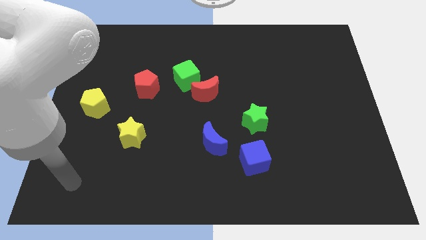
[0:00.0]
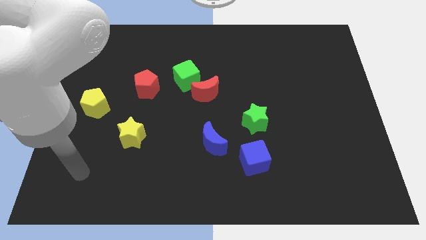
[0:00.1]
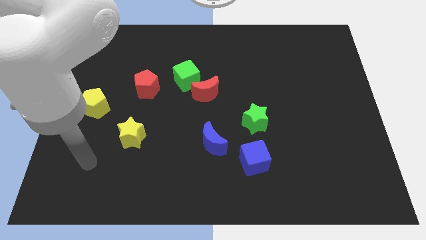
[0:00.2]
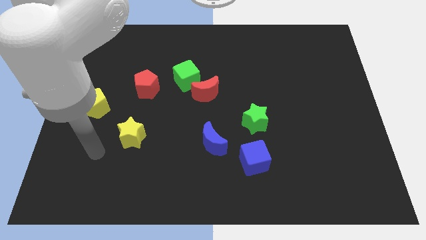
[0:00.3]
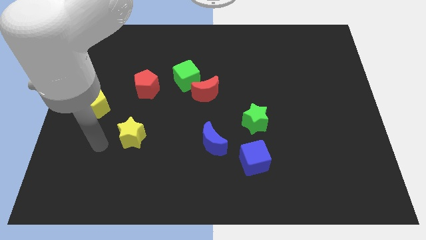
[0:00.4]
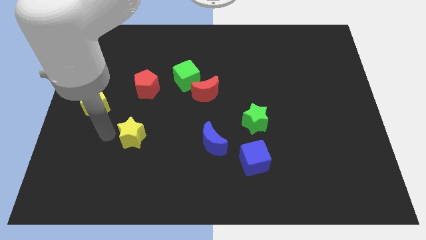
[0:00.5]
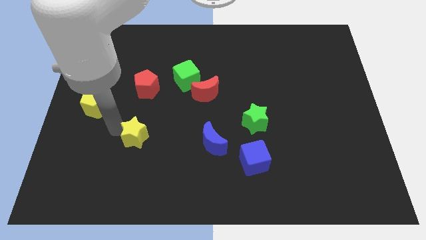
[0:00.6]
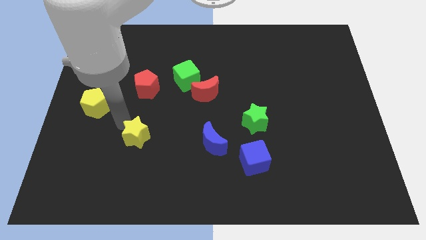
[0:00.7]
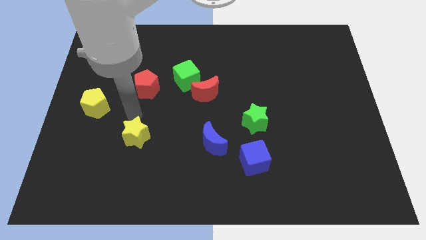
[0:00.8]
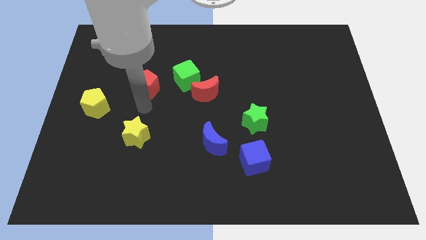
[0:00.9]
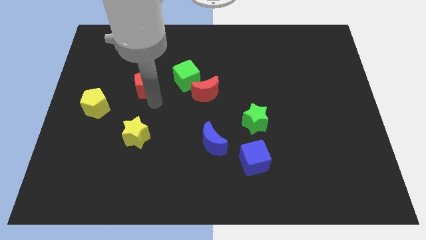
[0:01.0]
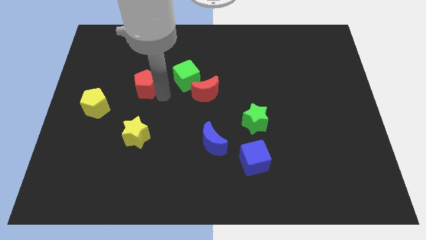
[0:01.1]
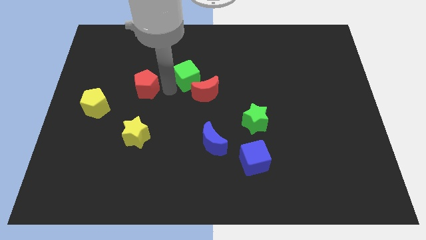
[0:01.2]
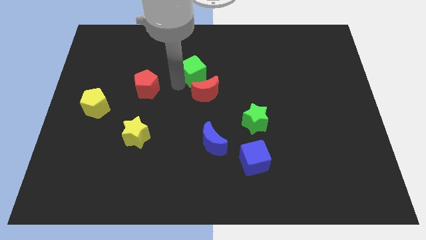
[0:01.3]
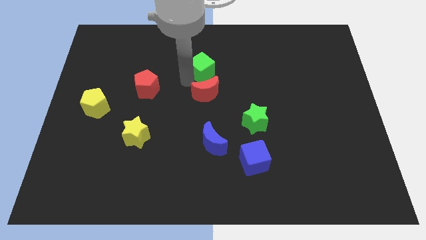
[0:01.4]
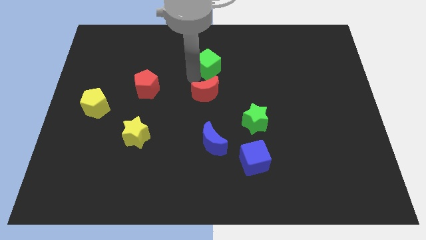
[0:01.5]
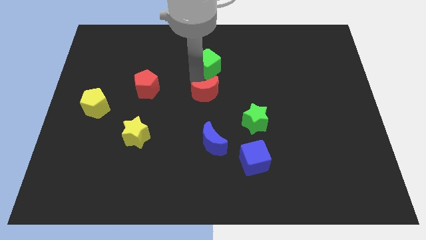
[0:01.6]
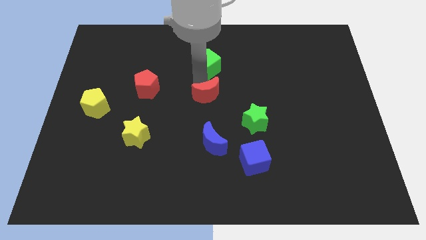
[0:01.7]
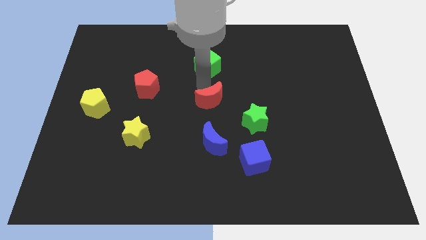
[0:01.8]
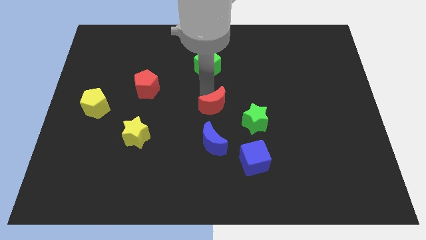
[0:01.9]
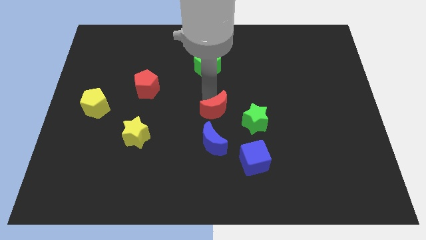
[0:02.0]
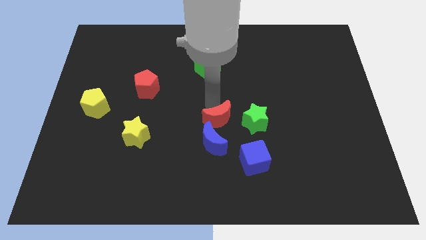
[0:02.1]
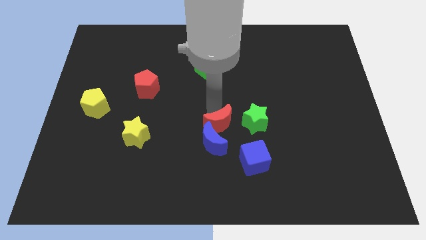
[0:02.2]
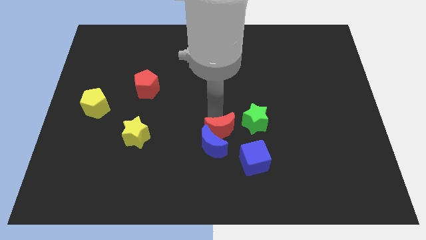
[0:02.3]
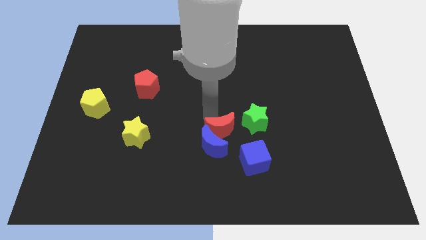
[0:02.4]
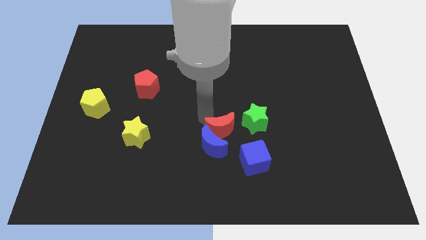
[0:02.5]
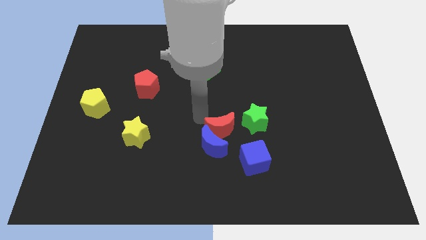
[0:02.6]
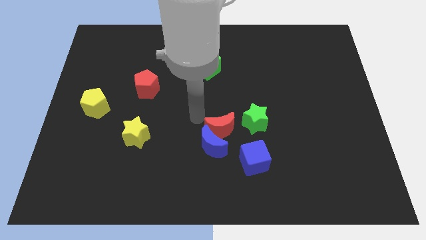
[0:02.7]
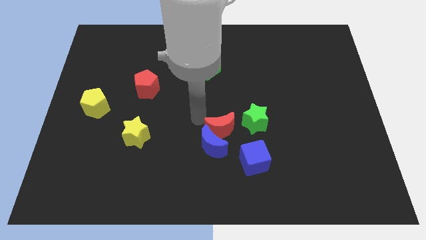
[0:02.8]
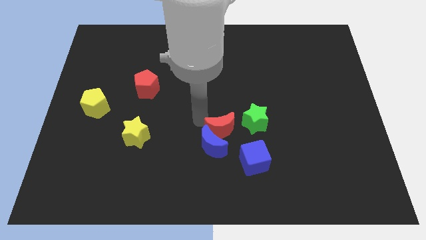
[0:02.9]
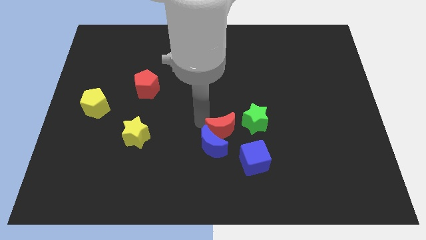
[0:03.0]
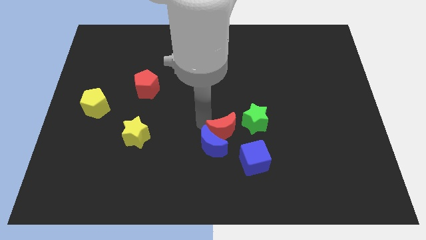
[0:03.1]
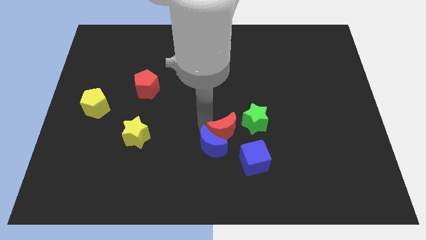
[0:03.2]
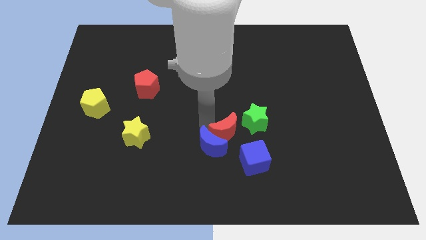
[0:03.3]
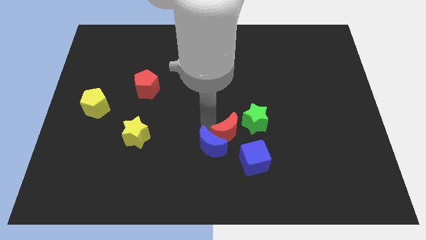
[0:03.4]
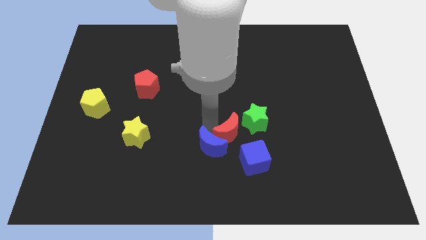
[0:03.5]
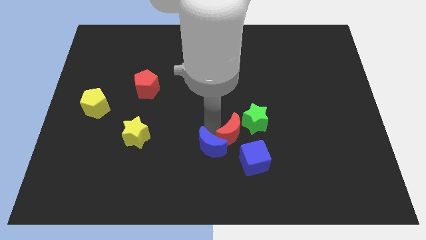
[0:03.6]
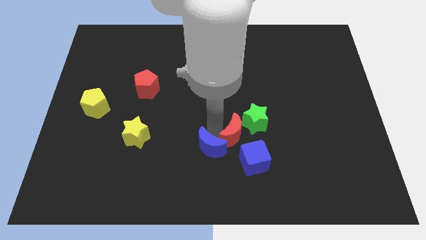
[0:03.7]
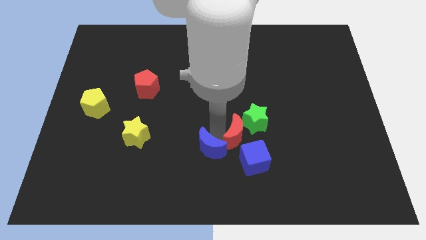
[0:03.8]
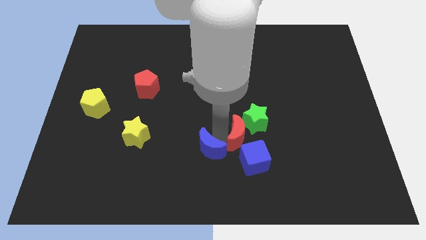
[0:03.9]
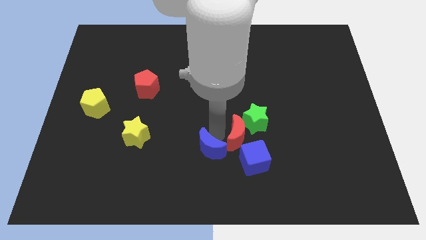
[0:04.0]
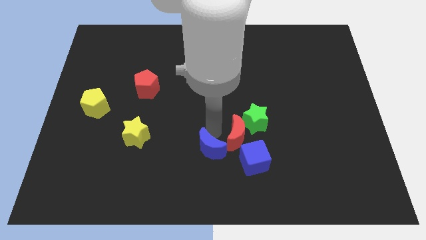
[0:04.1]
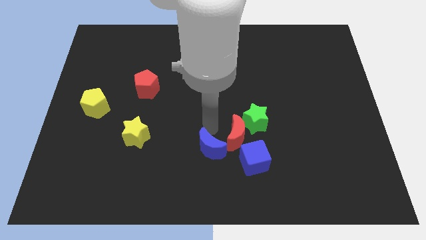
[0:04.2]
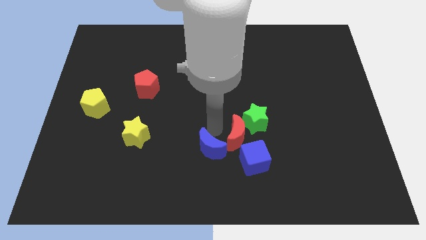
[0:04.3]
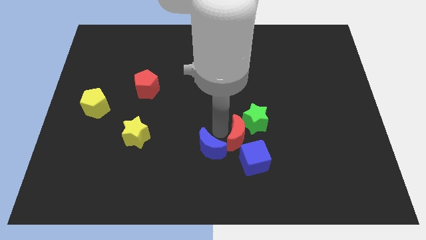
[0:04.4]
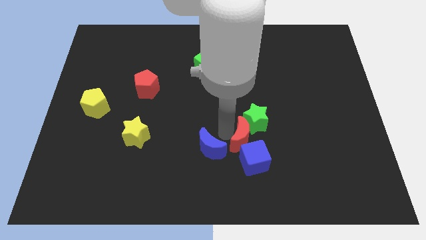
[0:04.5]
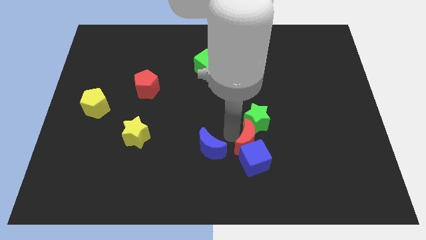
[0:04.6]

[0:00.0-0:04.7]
move the red moon diagonally up and to the right of the blue cube

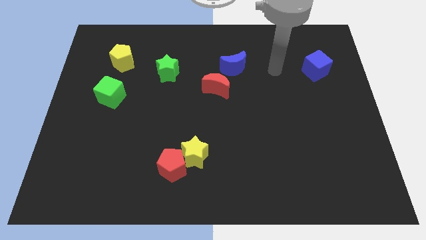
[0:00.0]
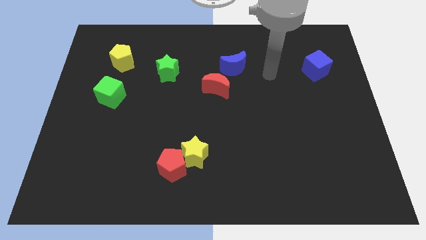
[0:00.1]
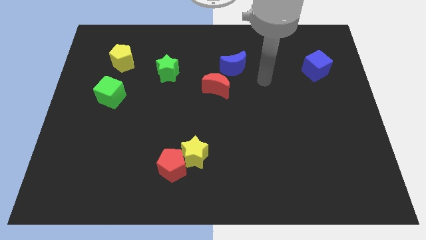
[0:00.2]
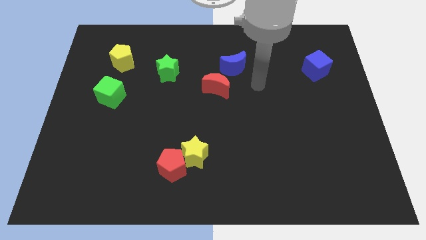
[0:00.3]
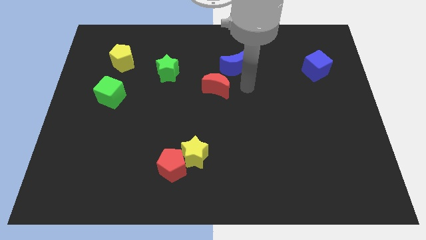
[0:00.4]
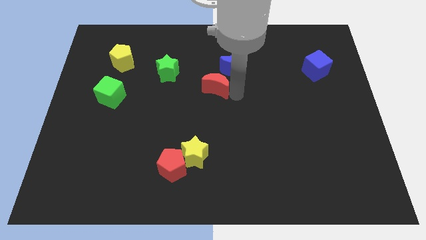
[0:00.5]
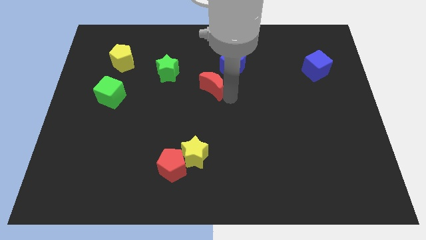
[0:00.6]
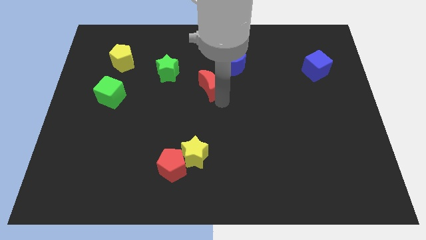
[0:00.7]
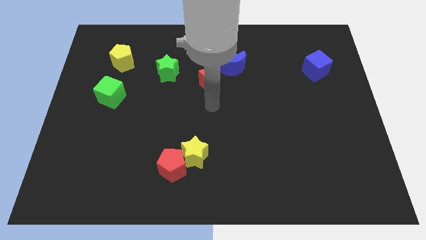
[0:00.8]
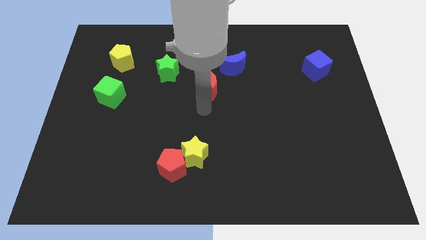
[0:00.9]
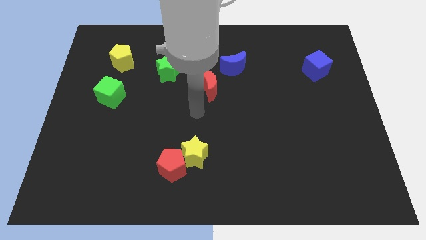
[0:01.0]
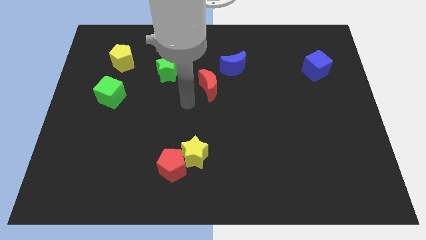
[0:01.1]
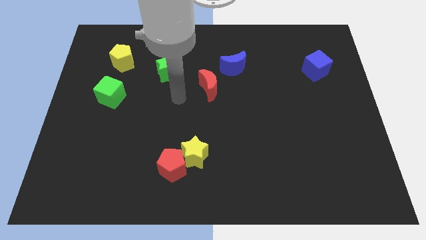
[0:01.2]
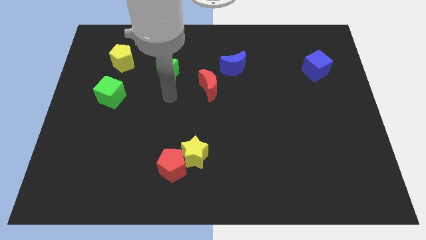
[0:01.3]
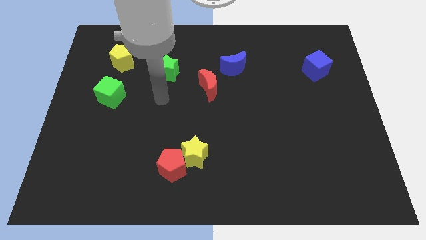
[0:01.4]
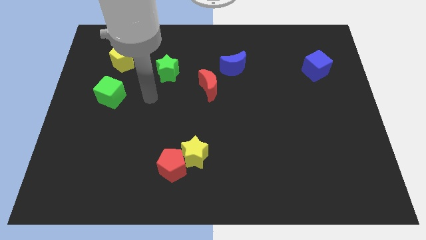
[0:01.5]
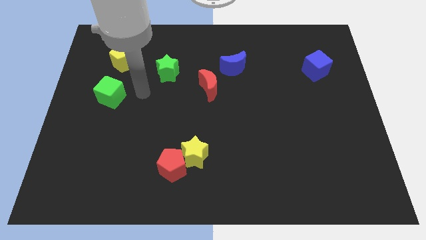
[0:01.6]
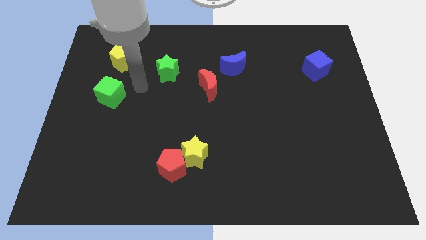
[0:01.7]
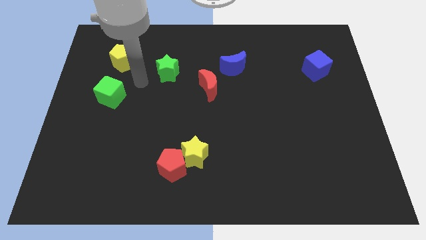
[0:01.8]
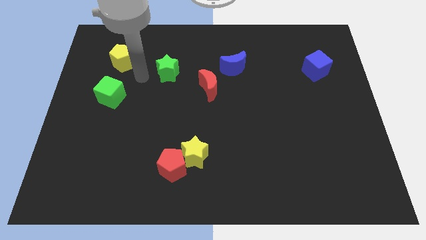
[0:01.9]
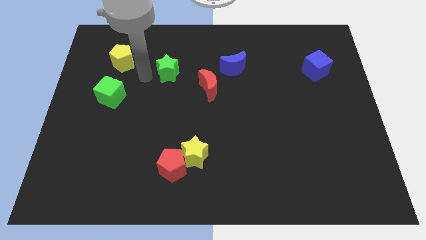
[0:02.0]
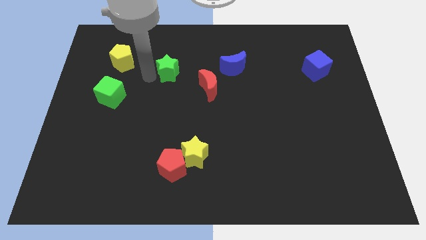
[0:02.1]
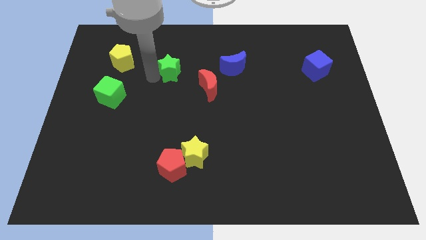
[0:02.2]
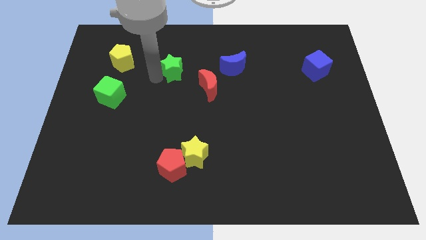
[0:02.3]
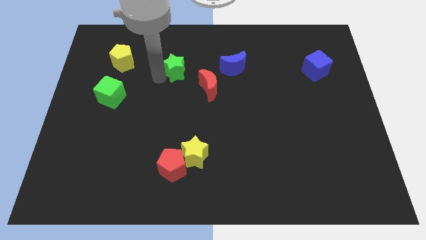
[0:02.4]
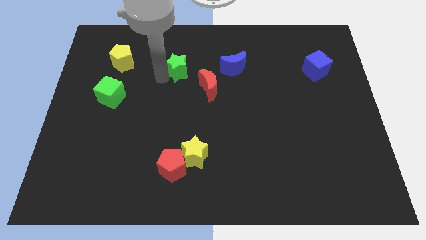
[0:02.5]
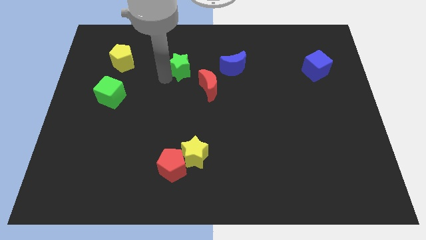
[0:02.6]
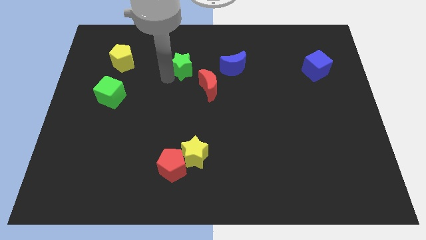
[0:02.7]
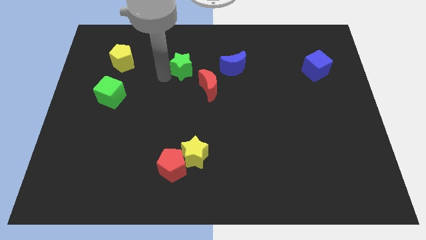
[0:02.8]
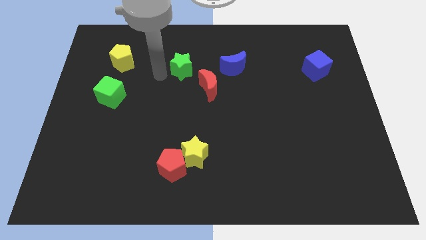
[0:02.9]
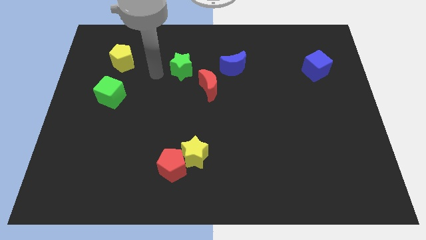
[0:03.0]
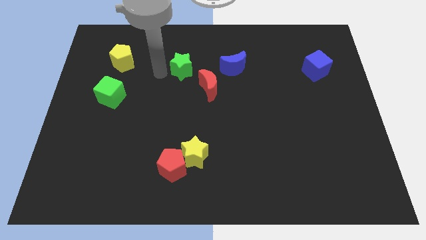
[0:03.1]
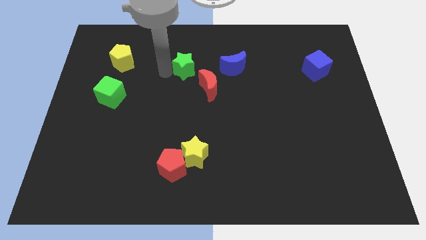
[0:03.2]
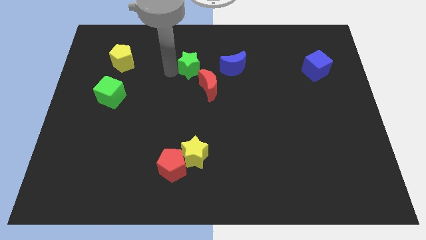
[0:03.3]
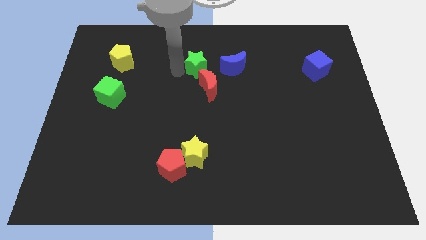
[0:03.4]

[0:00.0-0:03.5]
put the green star to the top of the red moon

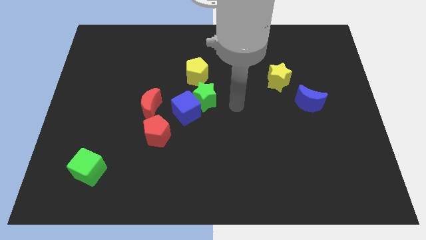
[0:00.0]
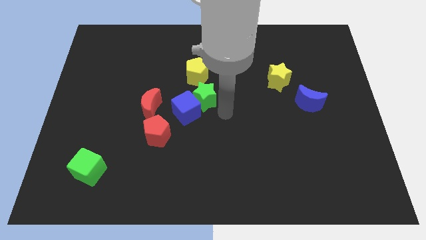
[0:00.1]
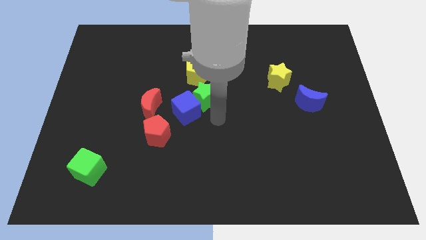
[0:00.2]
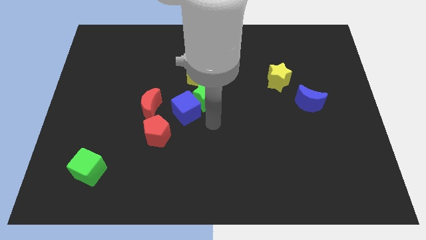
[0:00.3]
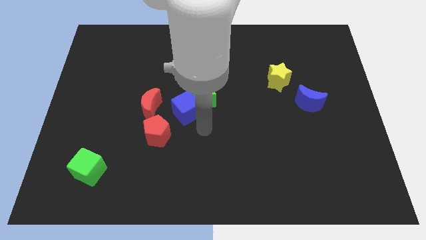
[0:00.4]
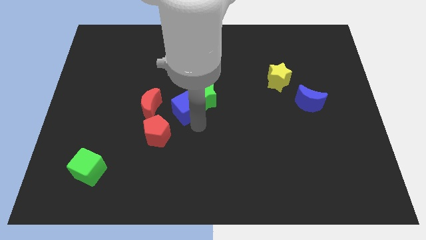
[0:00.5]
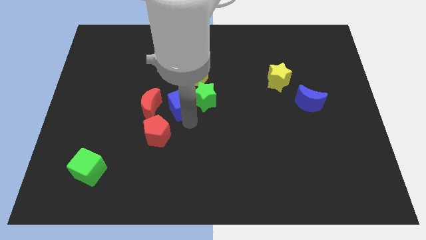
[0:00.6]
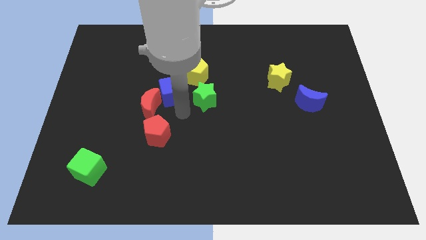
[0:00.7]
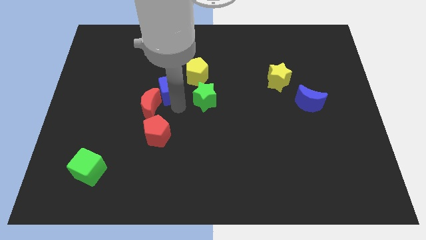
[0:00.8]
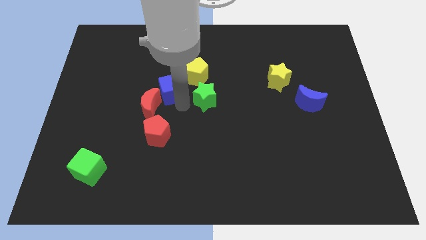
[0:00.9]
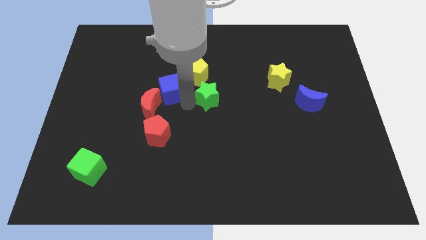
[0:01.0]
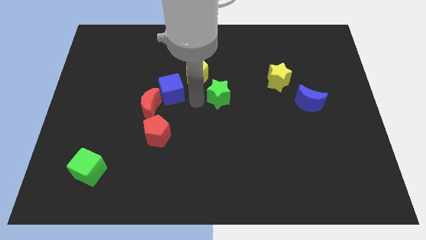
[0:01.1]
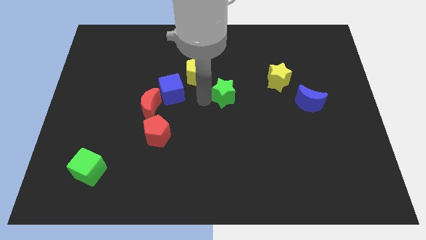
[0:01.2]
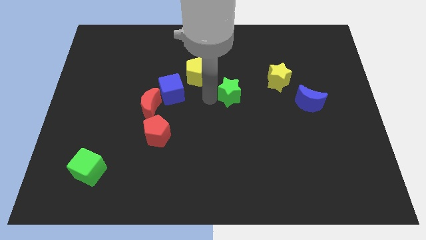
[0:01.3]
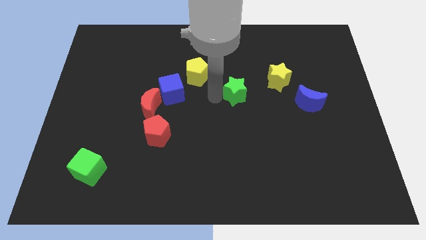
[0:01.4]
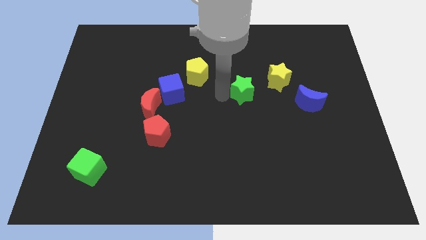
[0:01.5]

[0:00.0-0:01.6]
put the green star diagonally down and to the left of the yellow star
